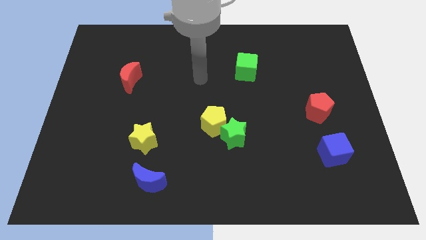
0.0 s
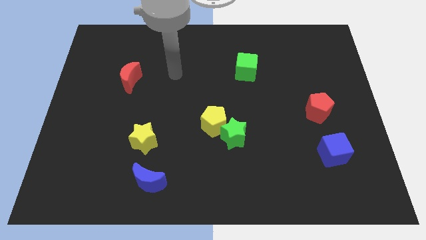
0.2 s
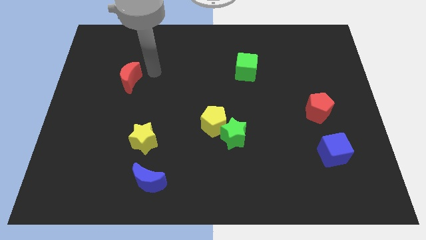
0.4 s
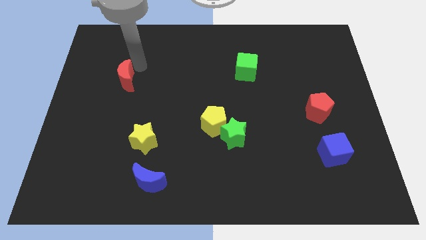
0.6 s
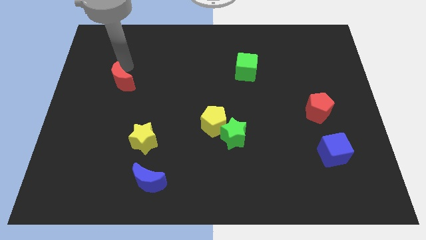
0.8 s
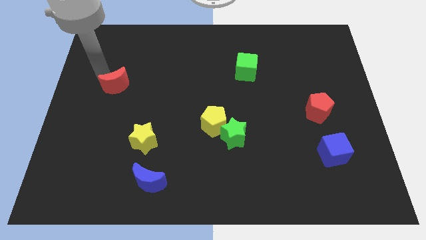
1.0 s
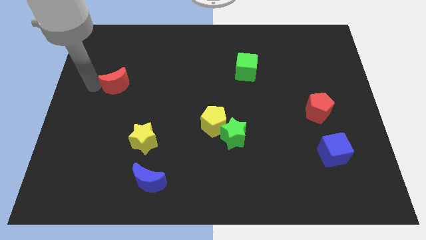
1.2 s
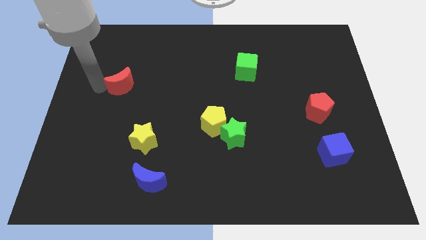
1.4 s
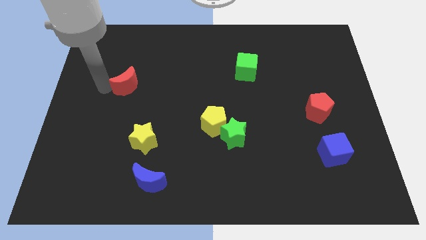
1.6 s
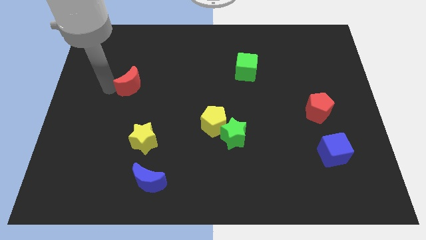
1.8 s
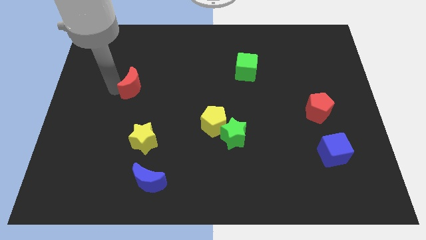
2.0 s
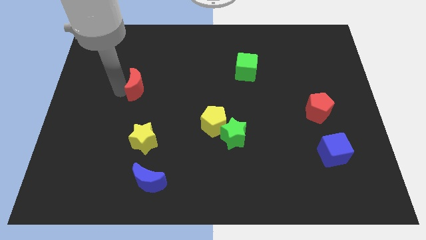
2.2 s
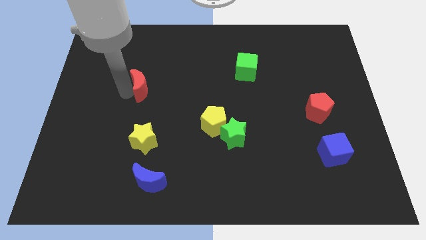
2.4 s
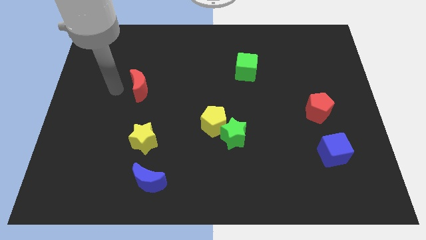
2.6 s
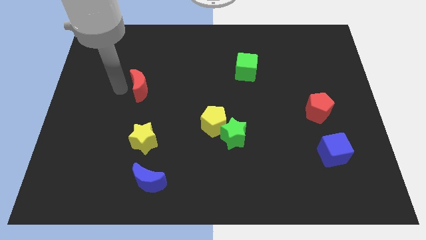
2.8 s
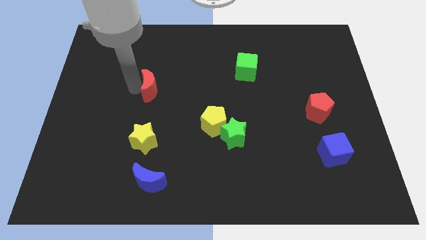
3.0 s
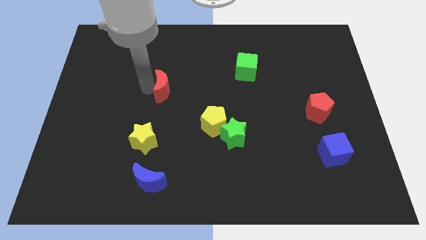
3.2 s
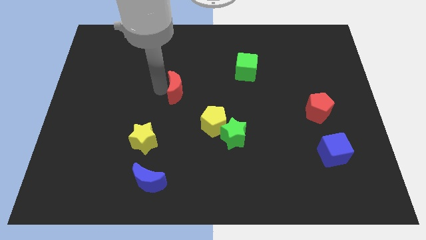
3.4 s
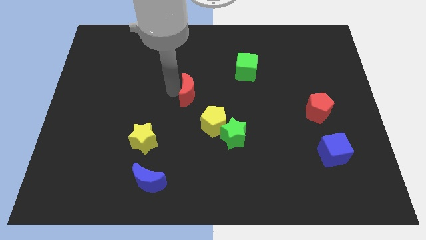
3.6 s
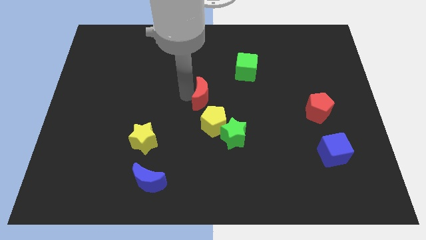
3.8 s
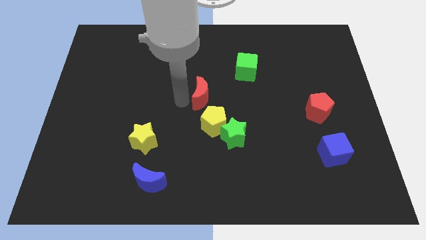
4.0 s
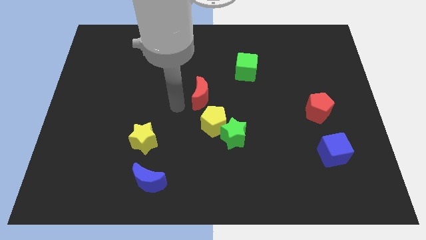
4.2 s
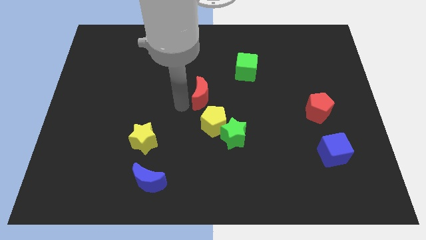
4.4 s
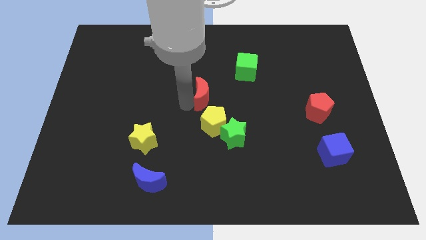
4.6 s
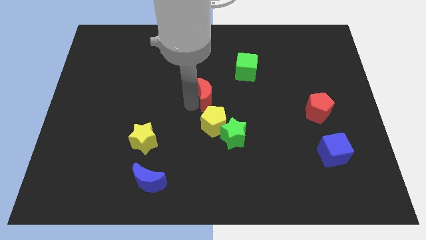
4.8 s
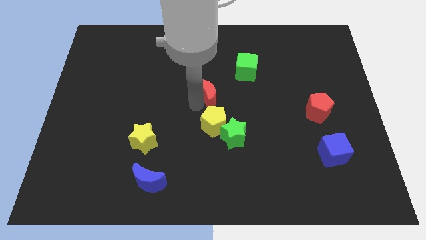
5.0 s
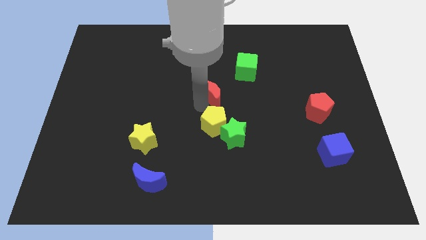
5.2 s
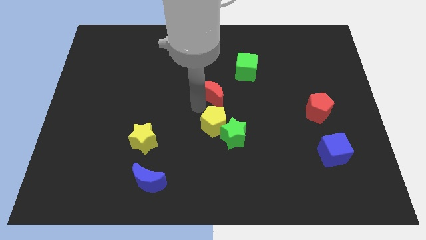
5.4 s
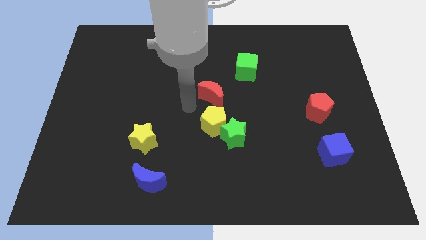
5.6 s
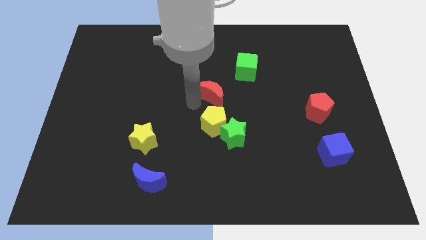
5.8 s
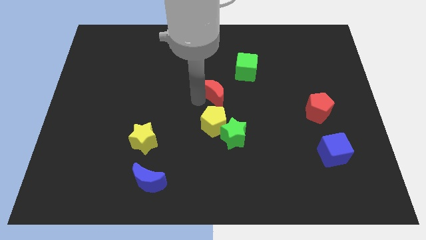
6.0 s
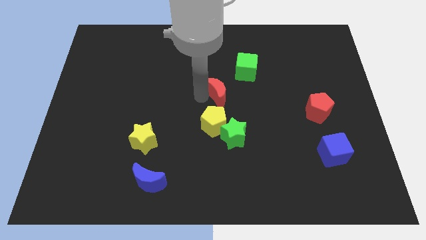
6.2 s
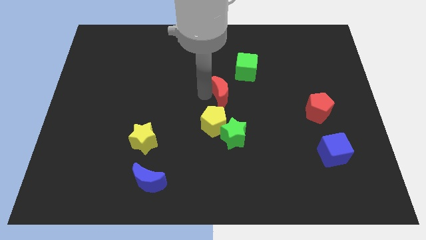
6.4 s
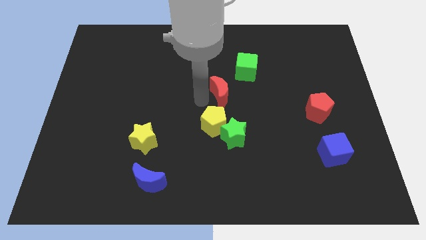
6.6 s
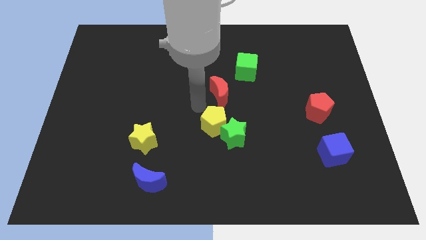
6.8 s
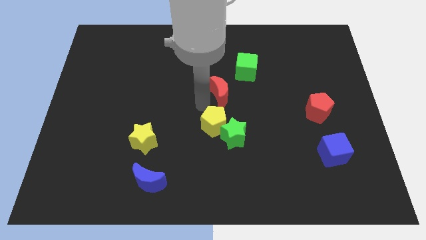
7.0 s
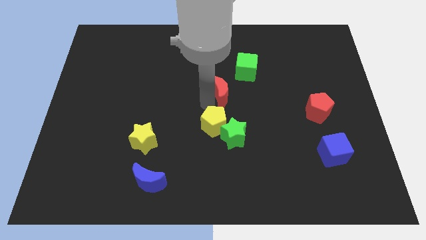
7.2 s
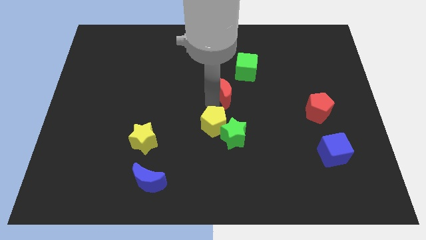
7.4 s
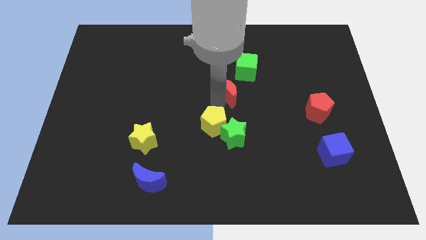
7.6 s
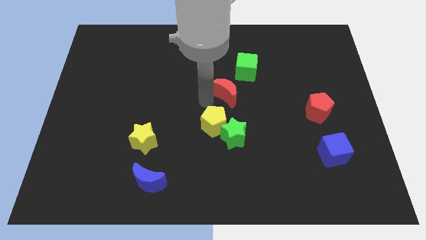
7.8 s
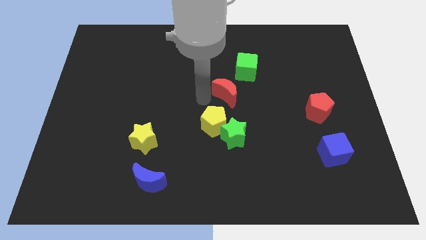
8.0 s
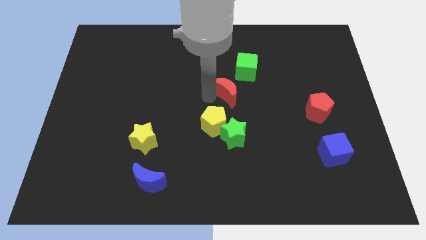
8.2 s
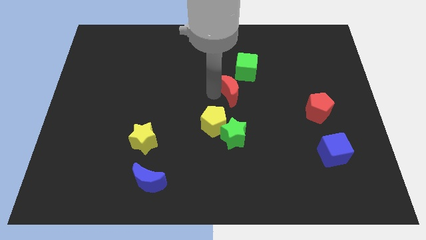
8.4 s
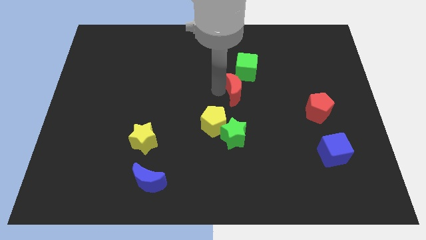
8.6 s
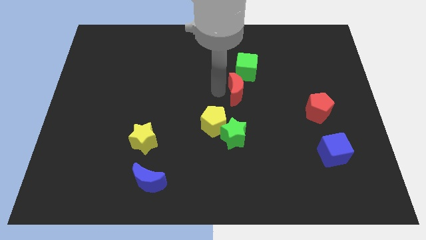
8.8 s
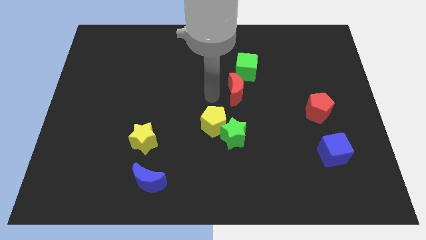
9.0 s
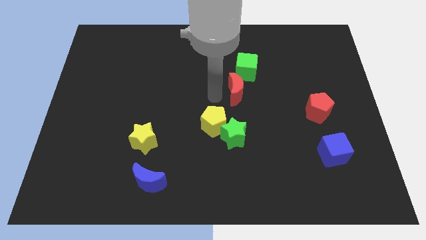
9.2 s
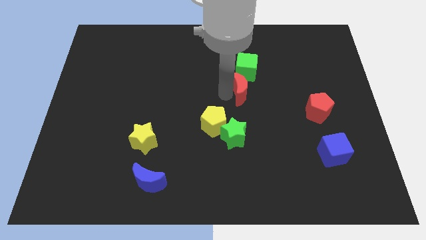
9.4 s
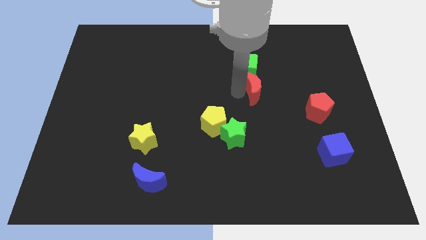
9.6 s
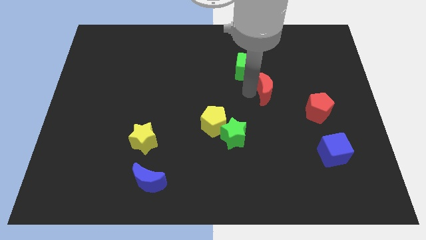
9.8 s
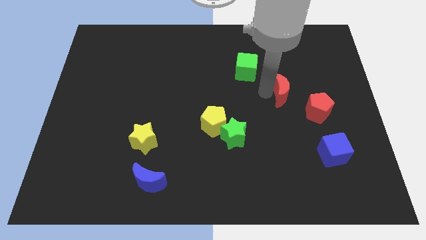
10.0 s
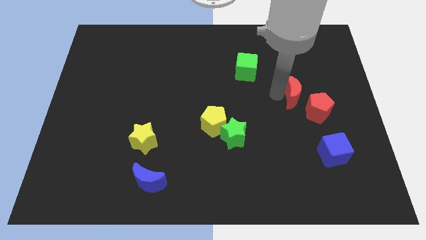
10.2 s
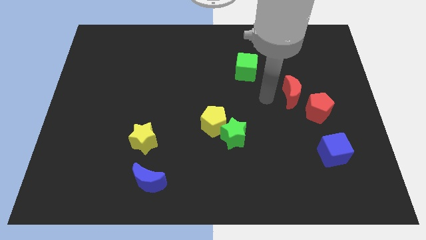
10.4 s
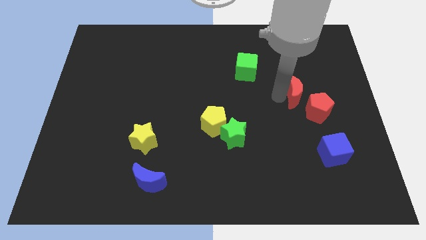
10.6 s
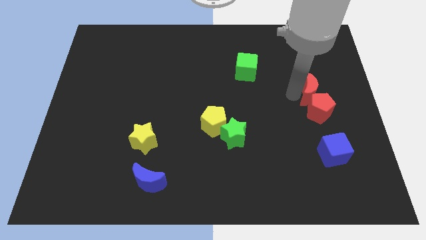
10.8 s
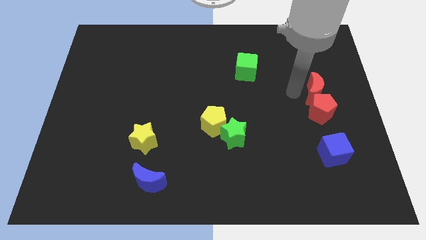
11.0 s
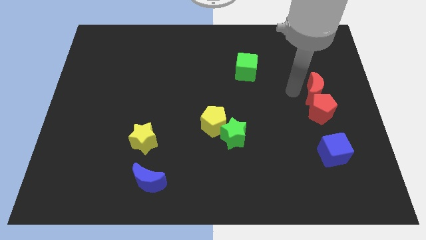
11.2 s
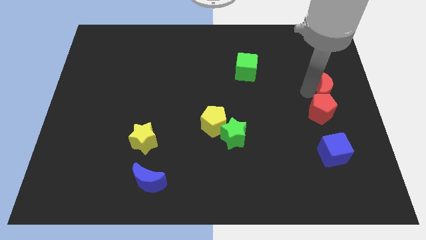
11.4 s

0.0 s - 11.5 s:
push the red moon to the center right
